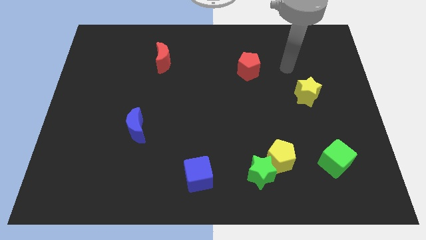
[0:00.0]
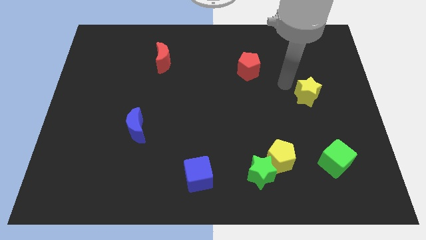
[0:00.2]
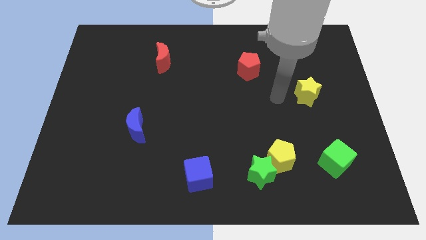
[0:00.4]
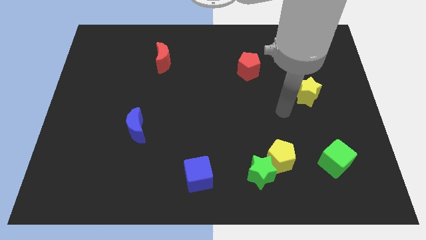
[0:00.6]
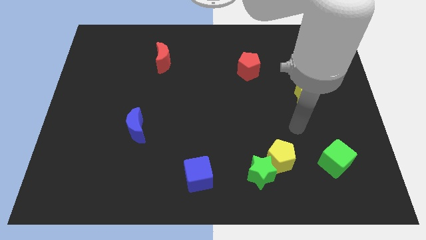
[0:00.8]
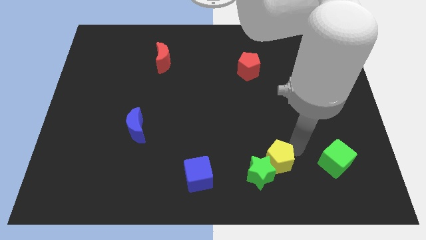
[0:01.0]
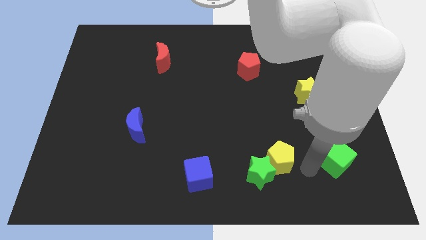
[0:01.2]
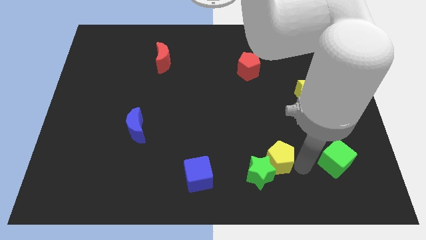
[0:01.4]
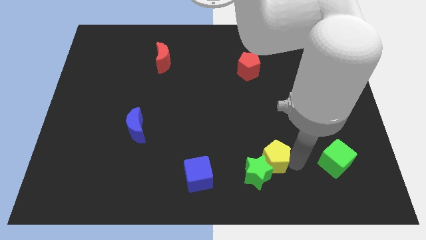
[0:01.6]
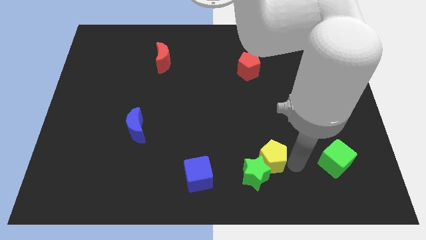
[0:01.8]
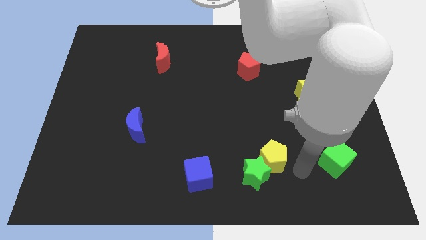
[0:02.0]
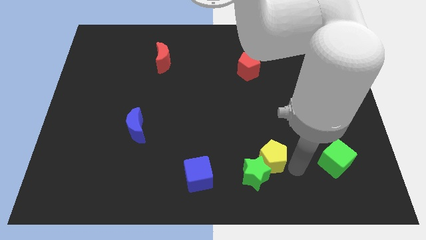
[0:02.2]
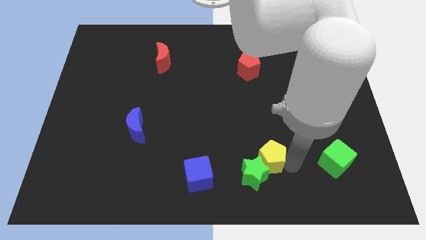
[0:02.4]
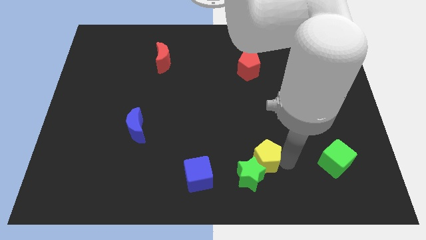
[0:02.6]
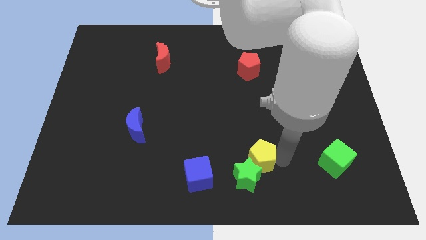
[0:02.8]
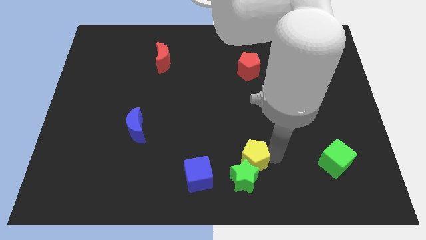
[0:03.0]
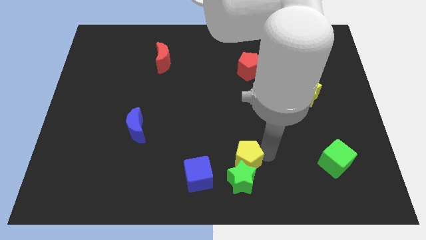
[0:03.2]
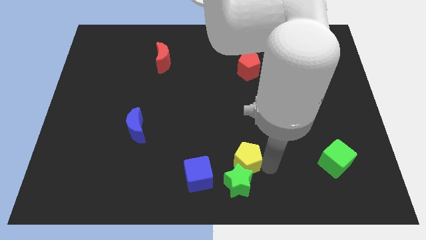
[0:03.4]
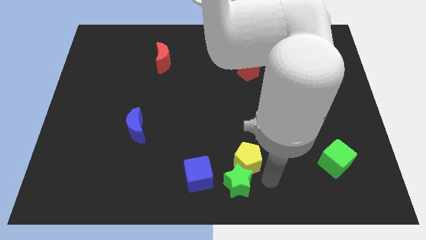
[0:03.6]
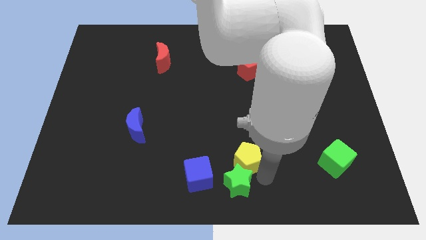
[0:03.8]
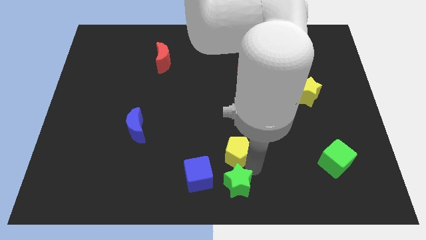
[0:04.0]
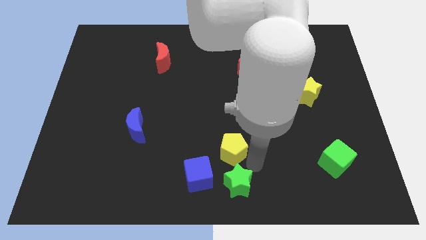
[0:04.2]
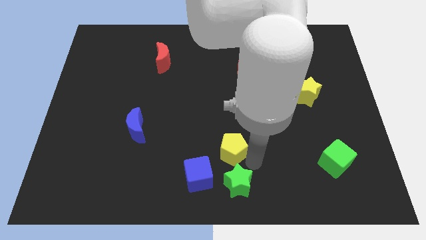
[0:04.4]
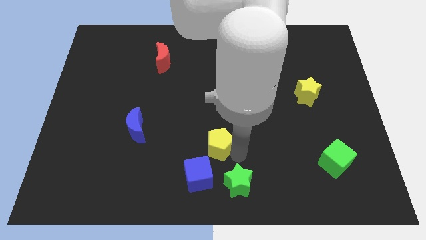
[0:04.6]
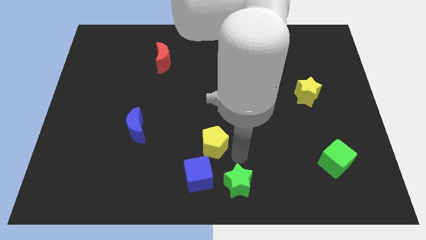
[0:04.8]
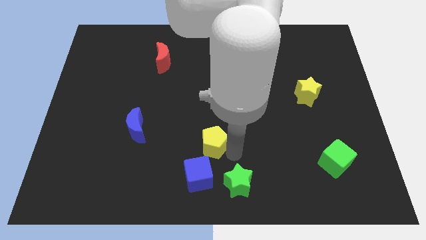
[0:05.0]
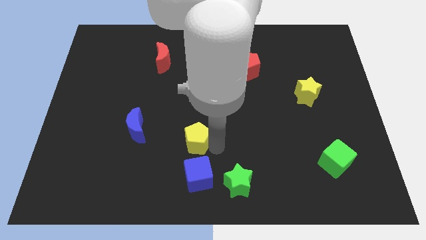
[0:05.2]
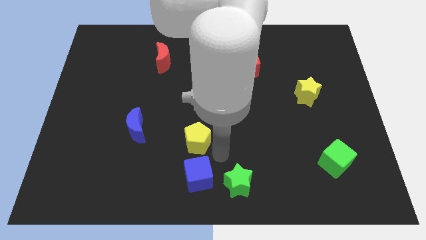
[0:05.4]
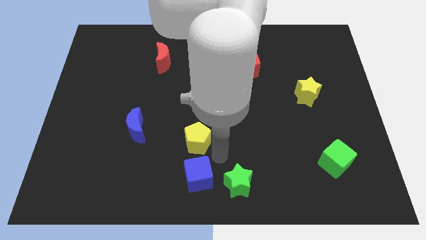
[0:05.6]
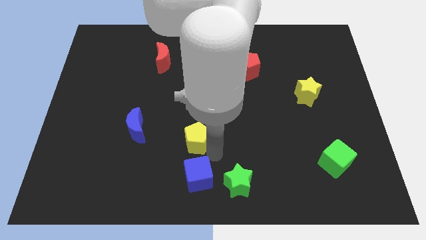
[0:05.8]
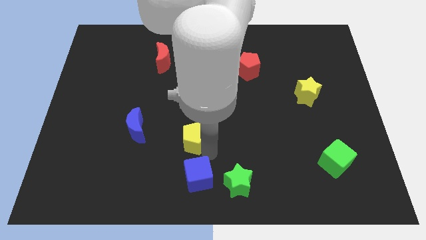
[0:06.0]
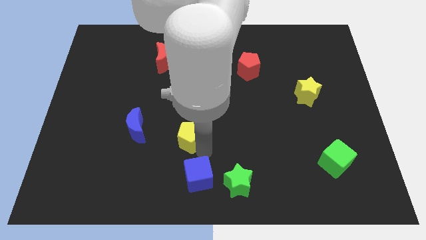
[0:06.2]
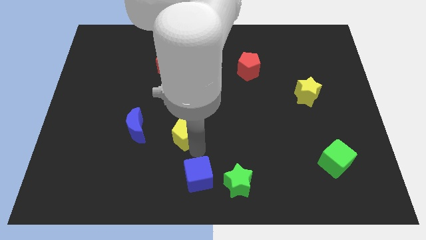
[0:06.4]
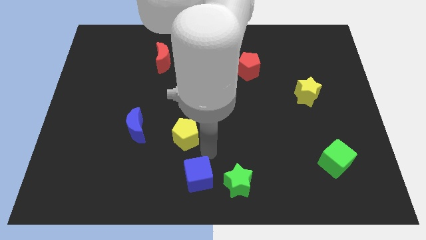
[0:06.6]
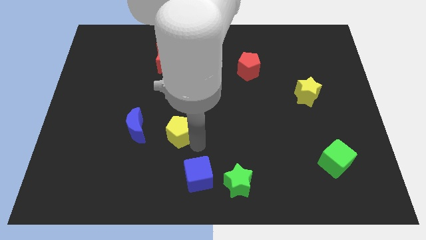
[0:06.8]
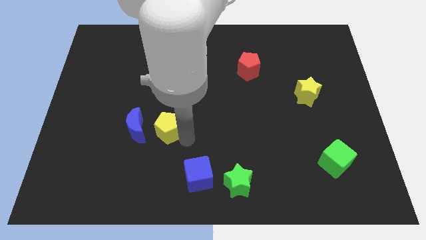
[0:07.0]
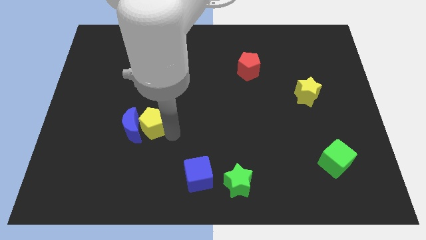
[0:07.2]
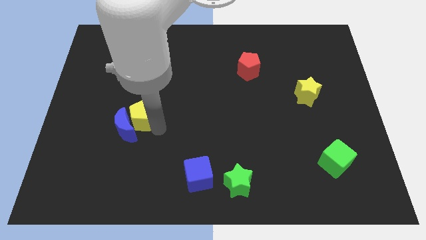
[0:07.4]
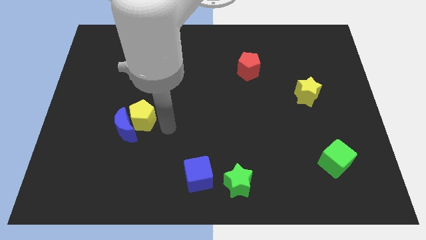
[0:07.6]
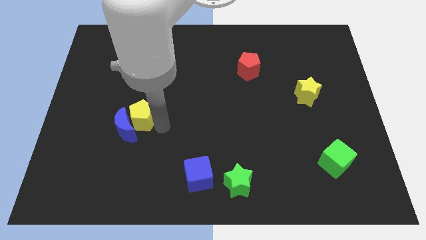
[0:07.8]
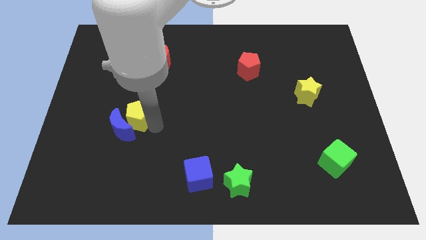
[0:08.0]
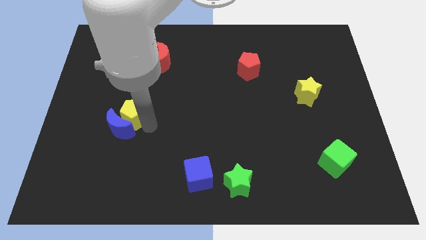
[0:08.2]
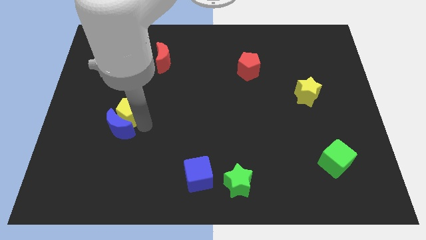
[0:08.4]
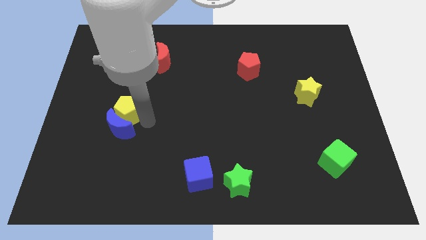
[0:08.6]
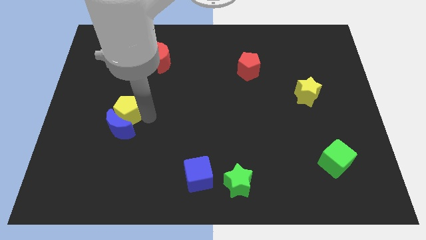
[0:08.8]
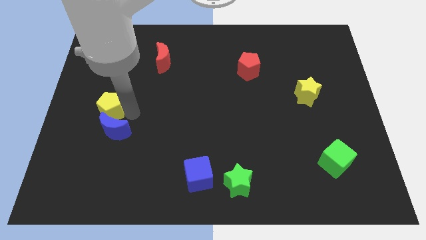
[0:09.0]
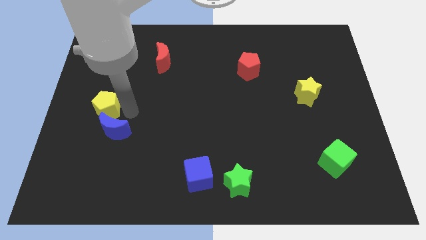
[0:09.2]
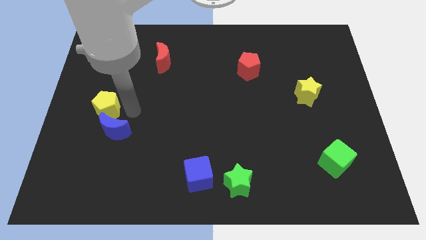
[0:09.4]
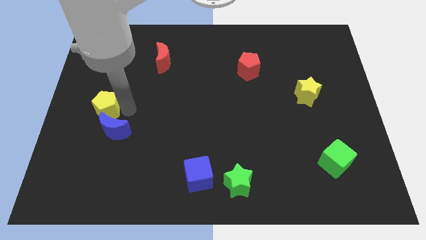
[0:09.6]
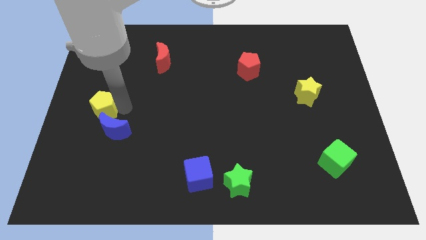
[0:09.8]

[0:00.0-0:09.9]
slide the yellow pentagon to the left side

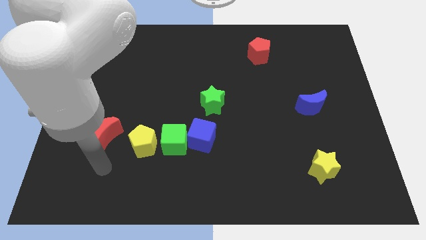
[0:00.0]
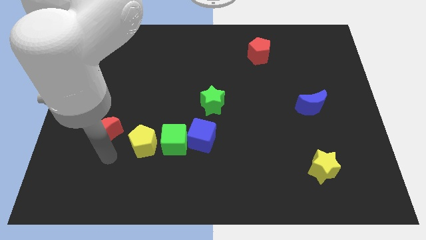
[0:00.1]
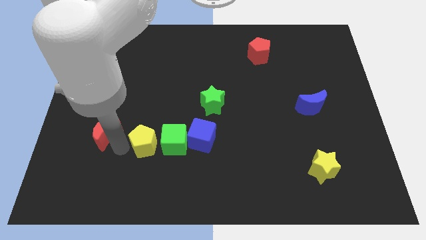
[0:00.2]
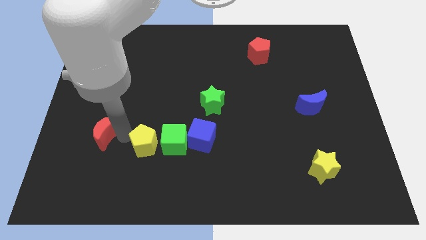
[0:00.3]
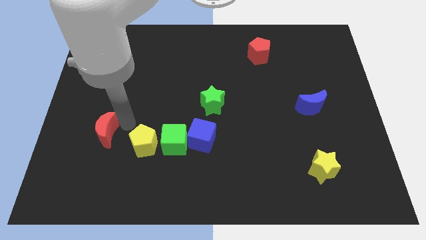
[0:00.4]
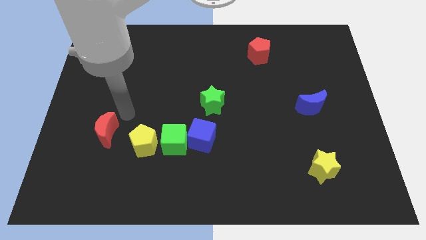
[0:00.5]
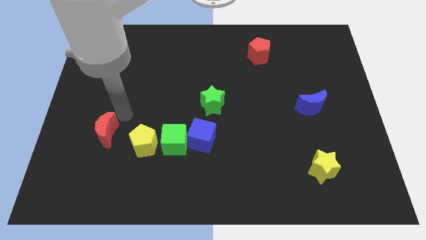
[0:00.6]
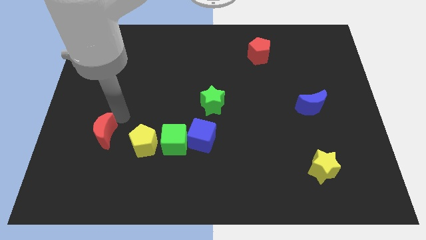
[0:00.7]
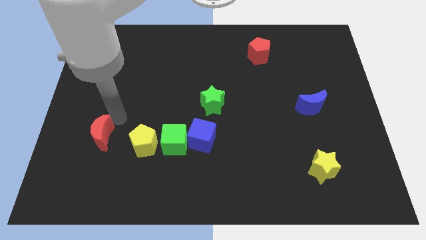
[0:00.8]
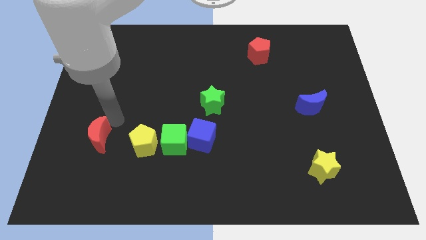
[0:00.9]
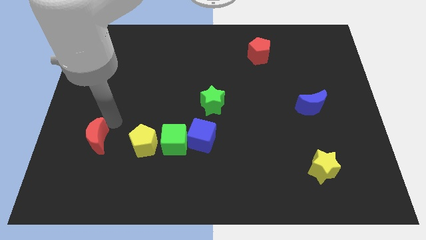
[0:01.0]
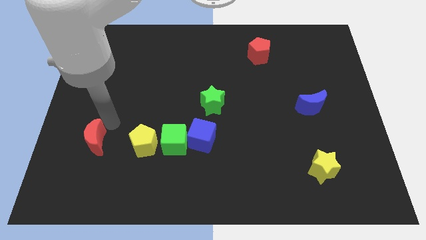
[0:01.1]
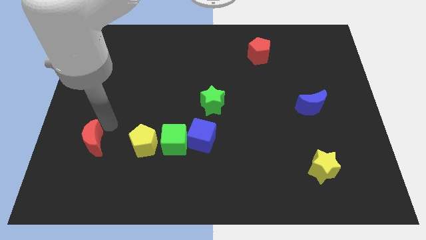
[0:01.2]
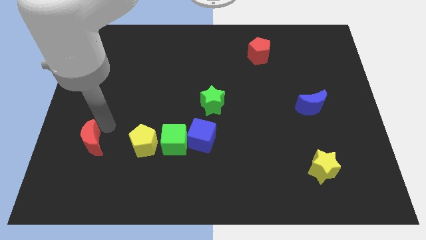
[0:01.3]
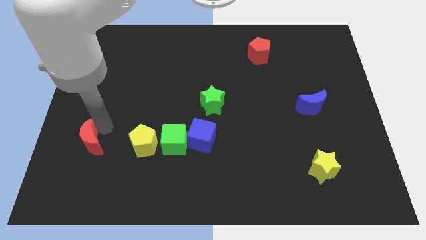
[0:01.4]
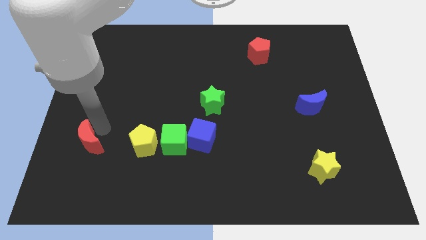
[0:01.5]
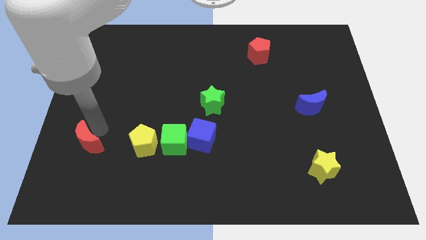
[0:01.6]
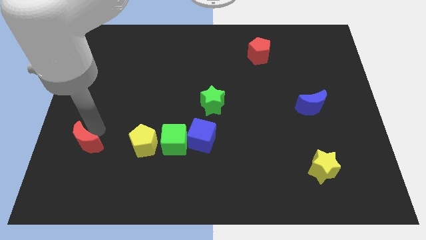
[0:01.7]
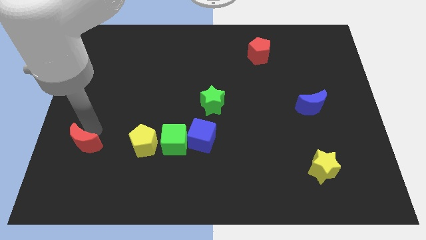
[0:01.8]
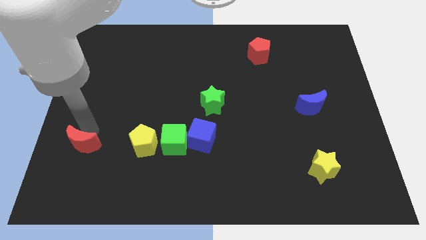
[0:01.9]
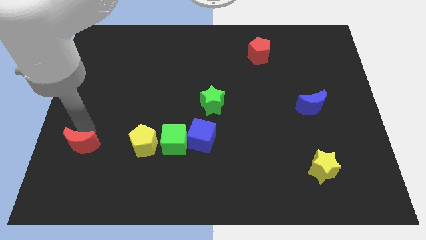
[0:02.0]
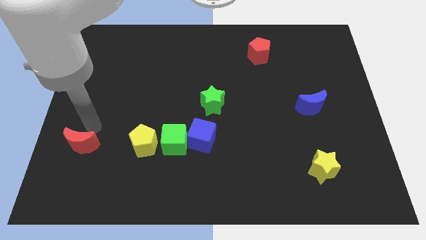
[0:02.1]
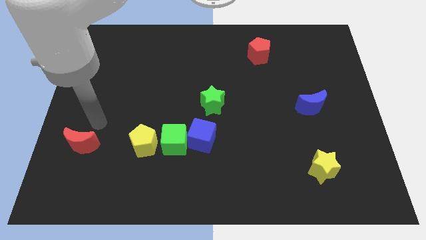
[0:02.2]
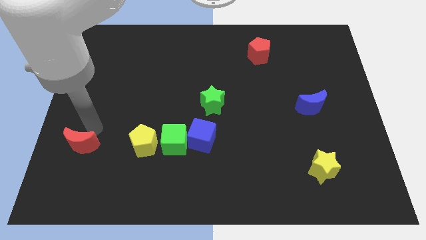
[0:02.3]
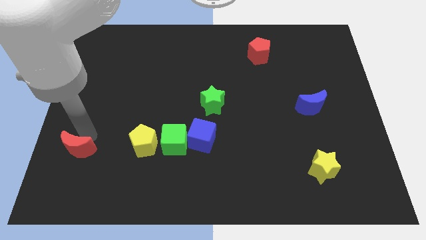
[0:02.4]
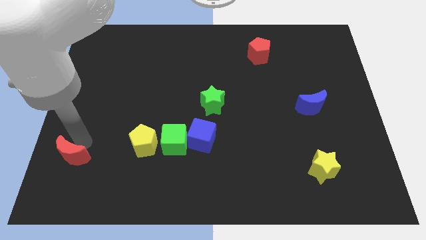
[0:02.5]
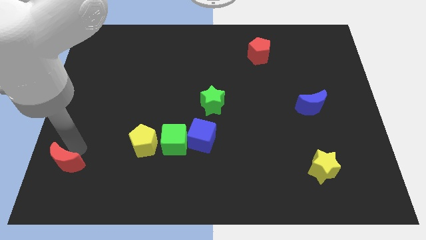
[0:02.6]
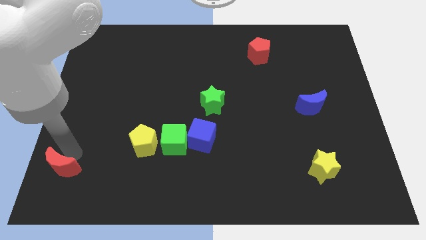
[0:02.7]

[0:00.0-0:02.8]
put the red moon to the bottom left corner
